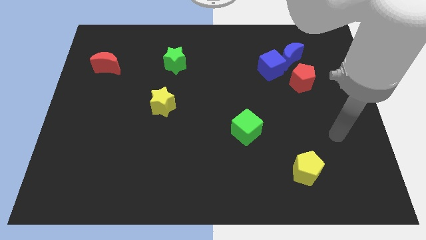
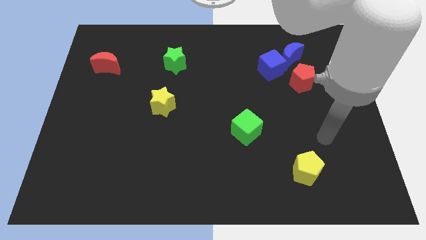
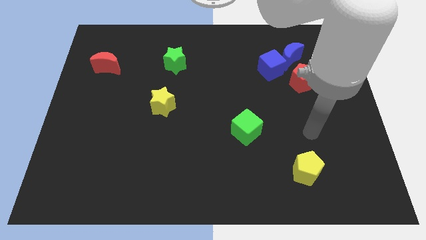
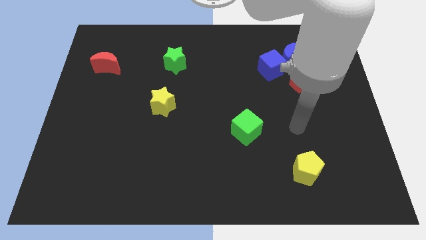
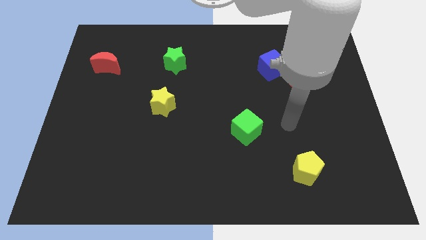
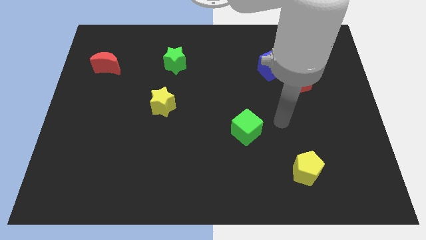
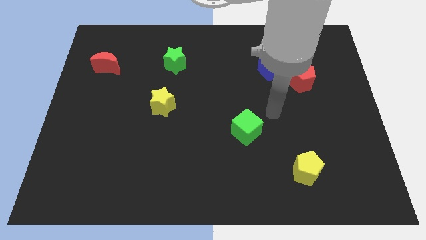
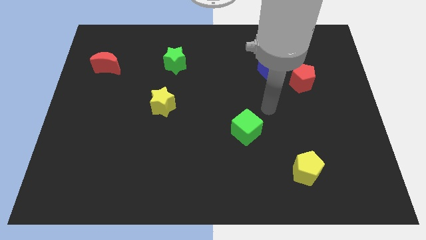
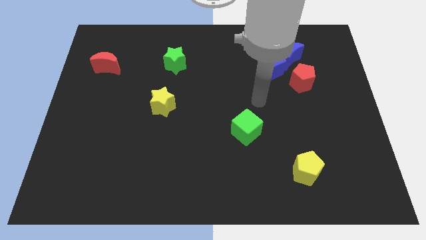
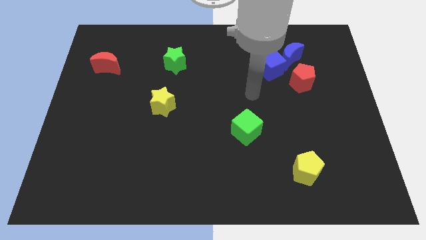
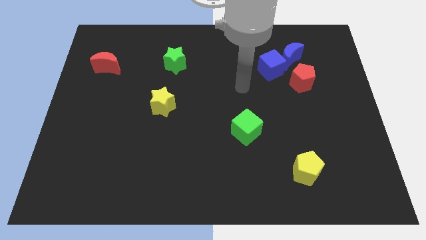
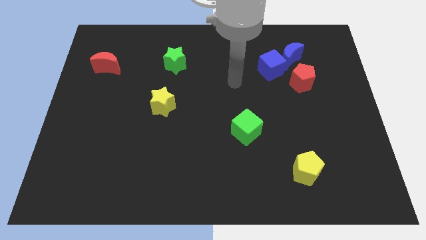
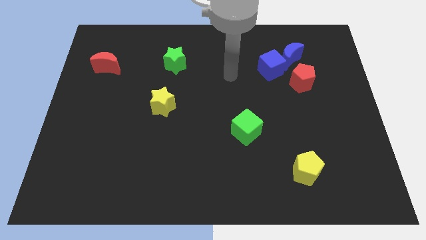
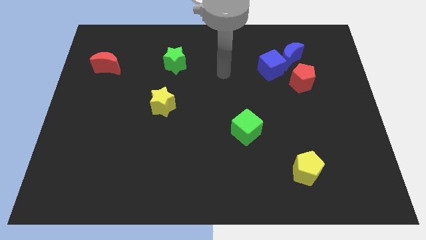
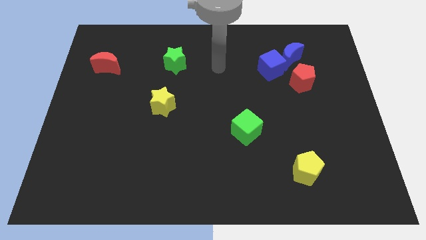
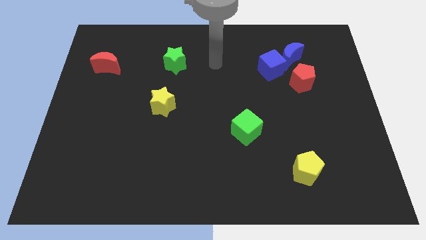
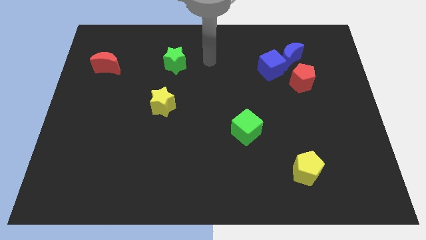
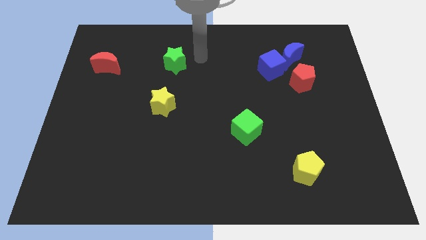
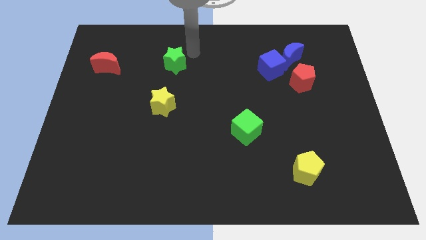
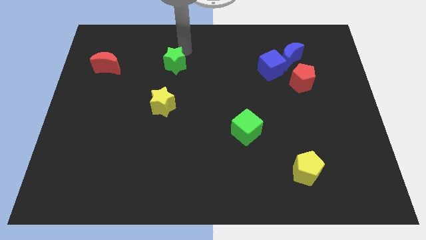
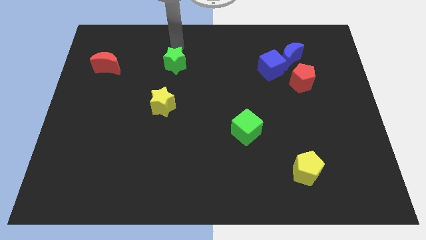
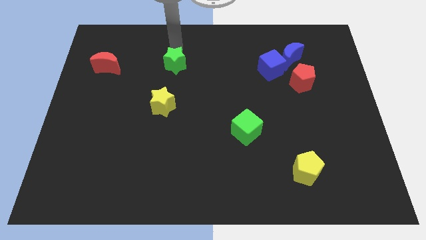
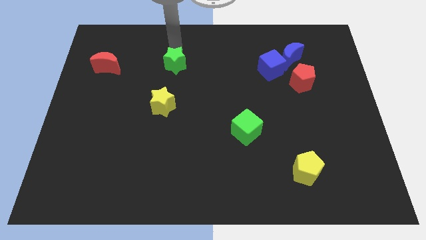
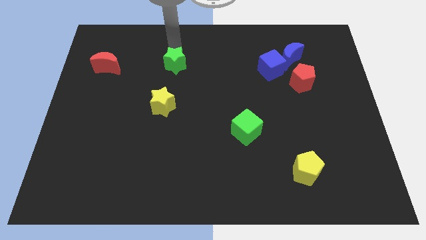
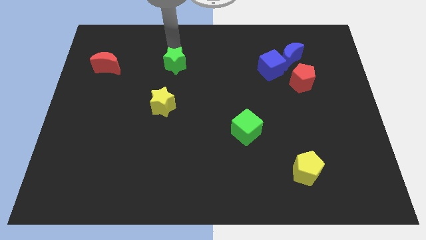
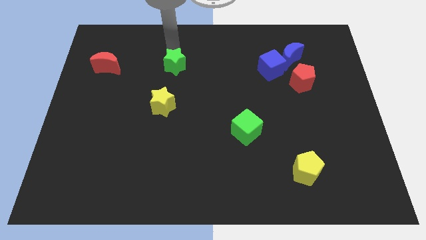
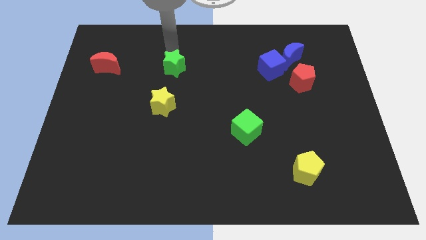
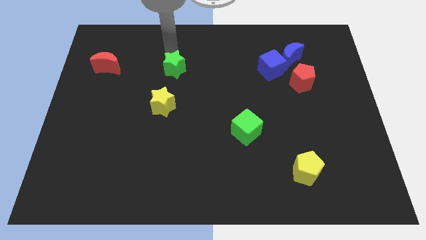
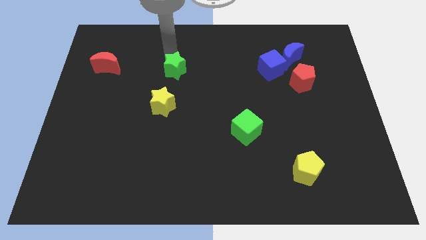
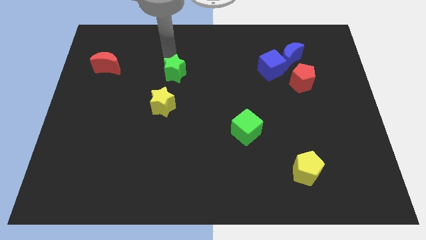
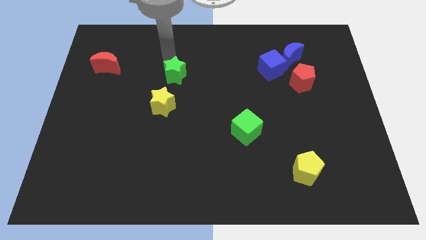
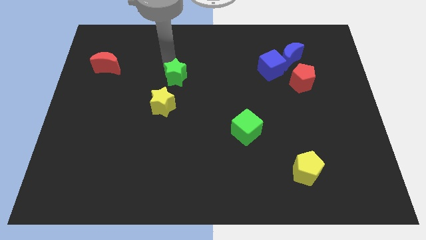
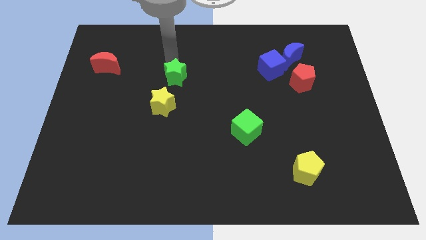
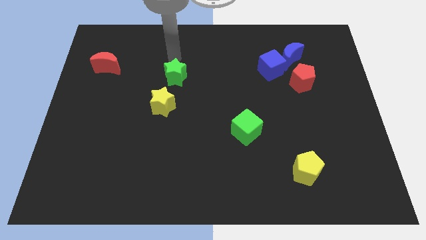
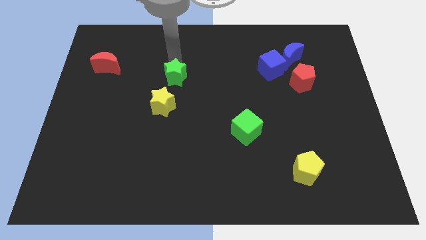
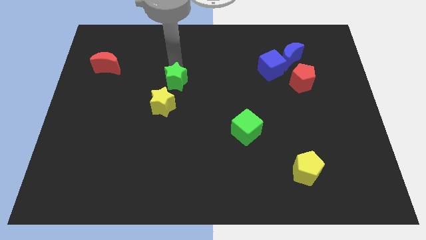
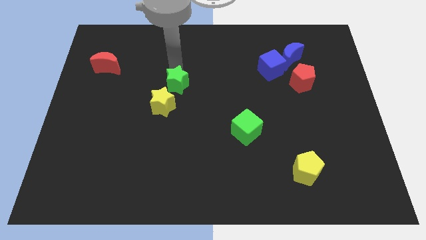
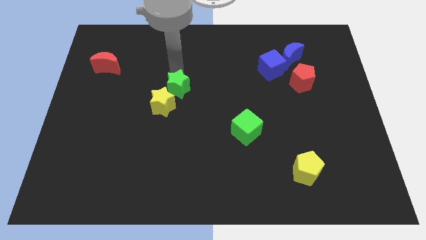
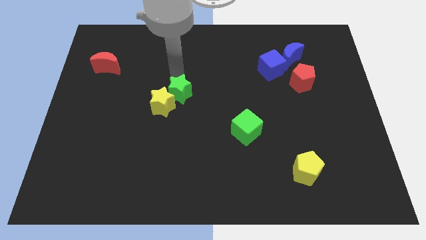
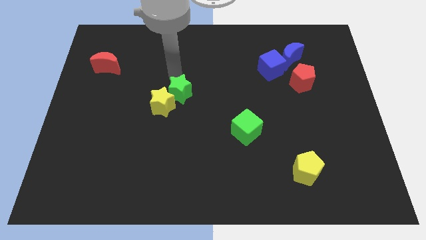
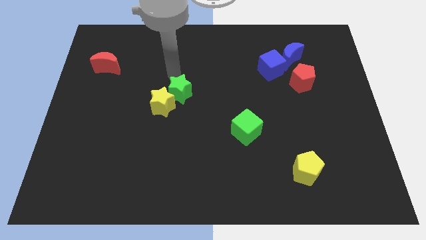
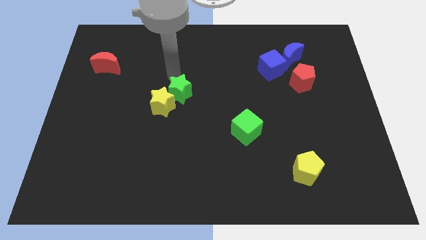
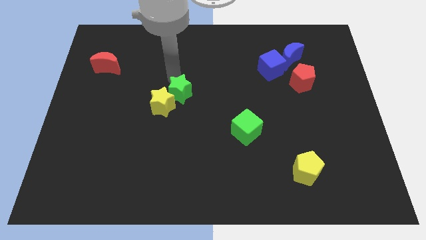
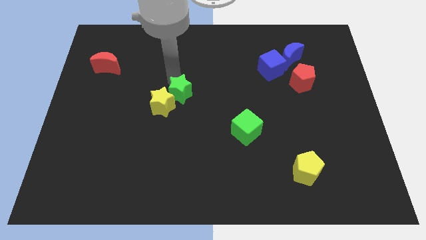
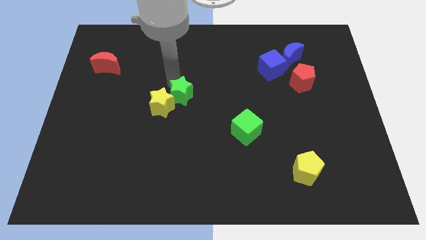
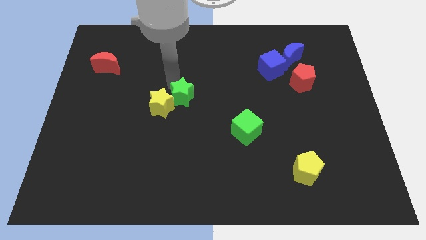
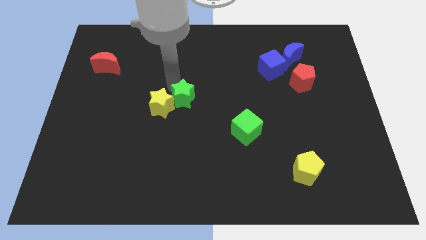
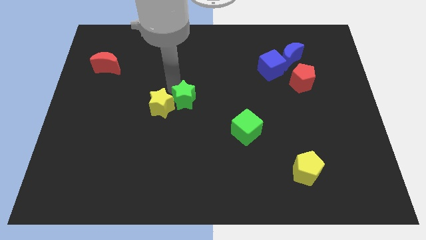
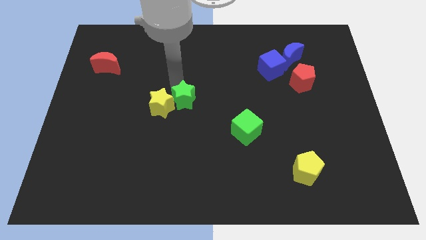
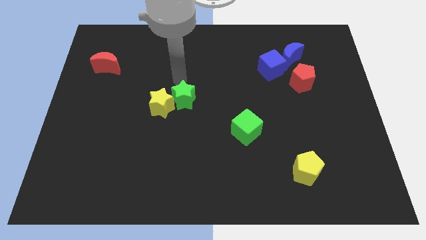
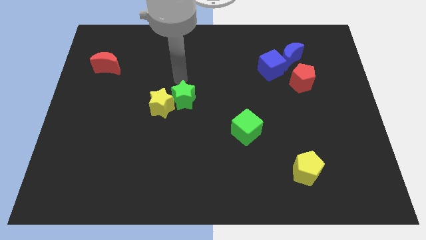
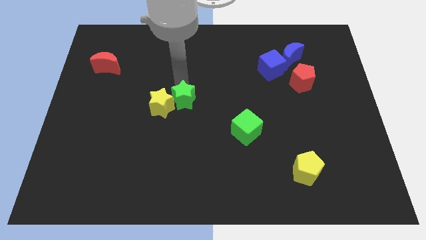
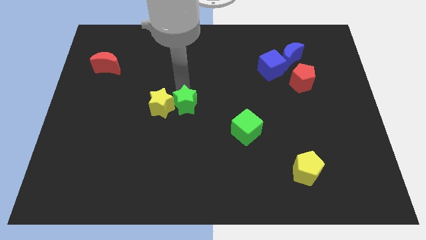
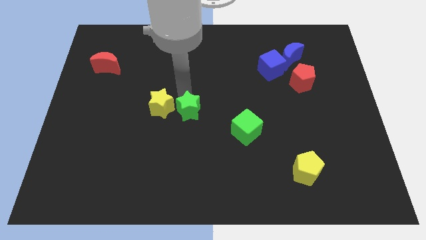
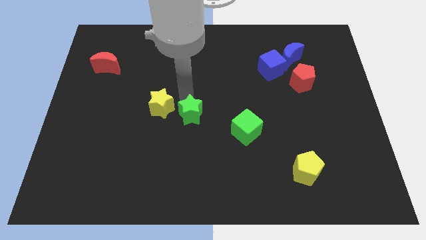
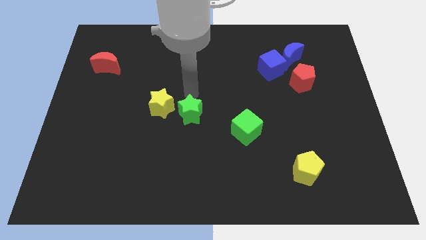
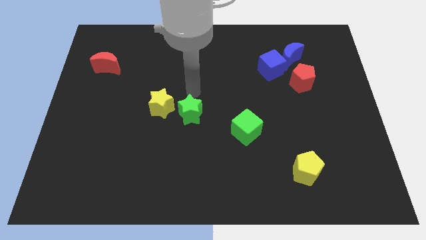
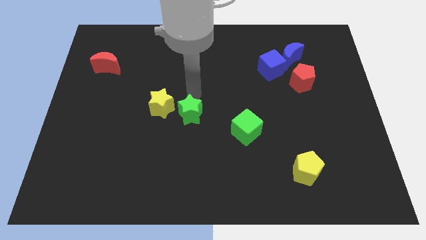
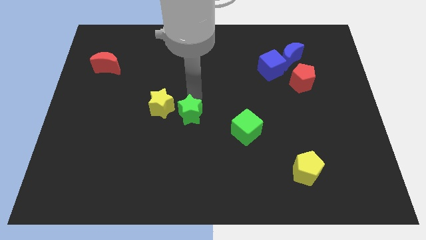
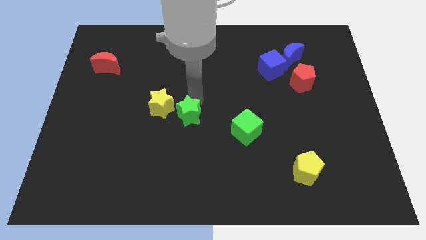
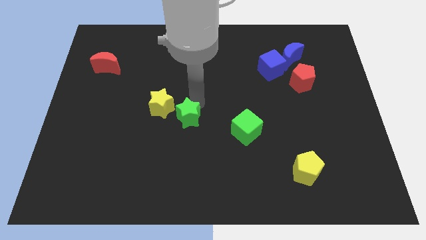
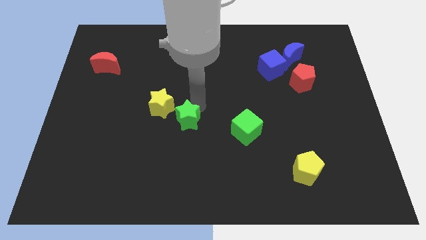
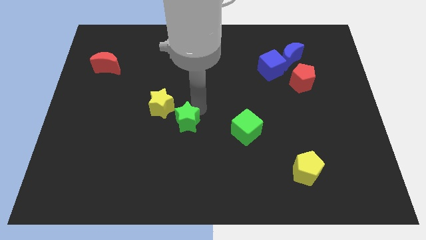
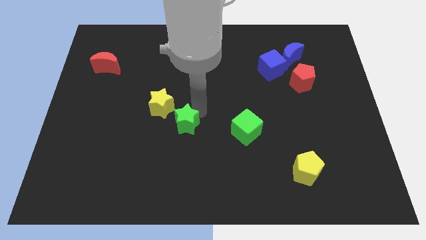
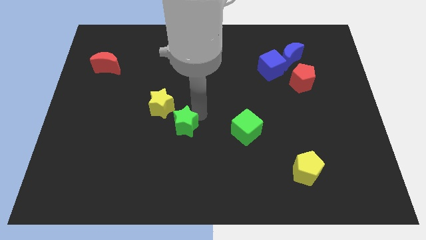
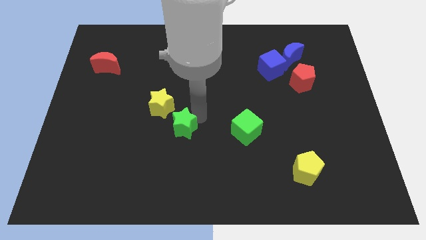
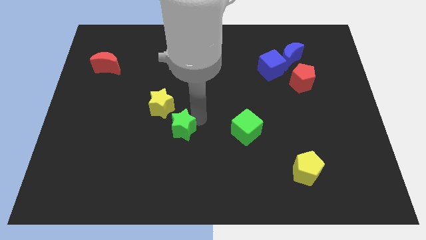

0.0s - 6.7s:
push the green star downwards

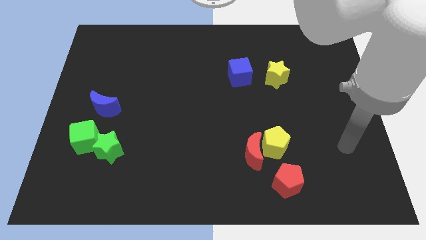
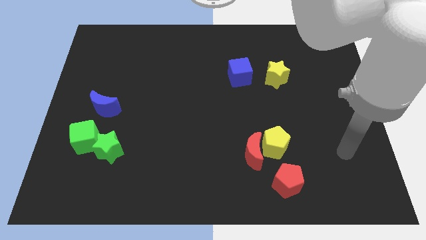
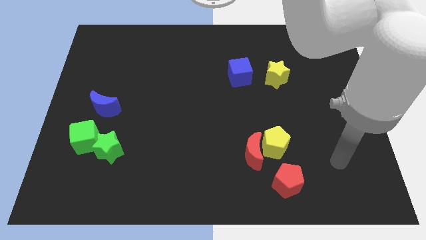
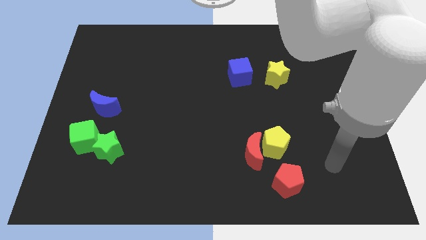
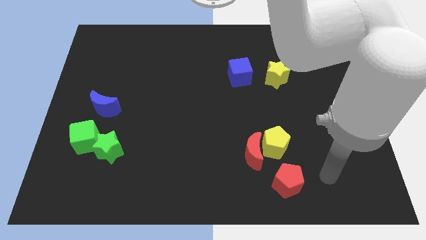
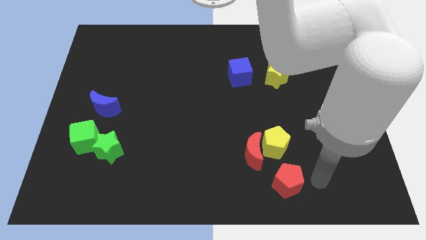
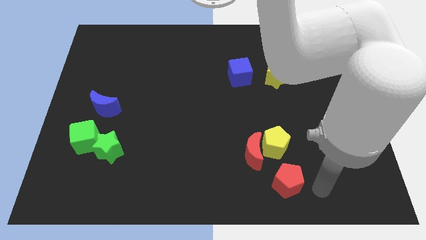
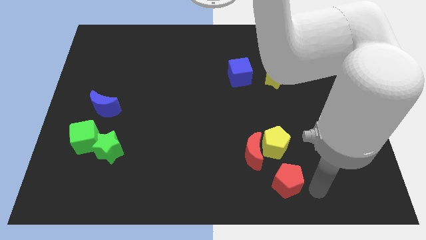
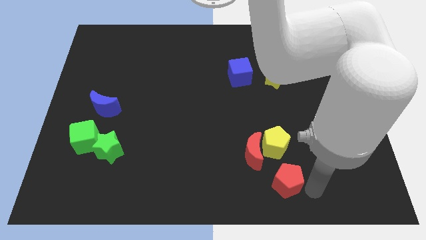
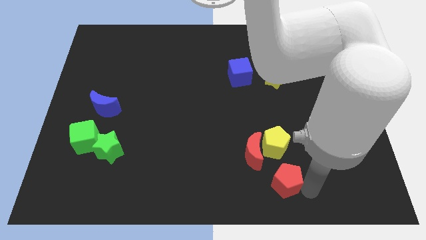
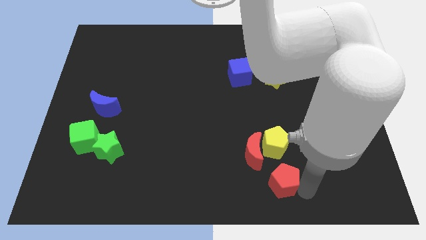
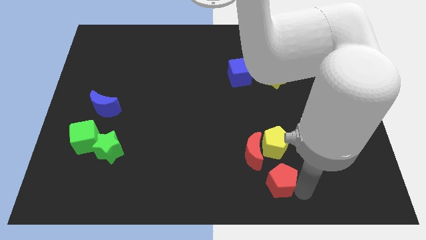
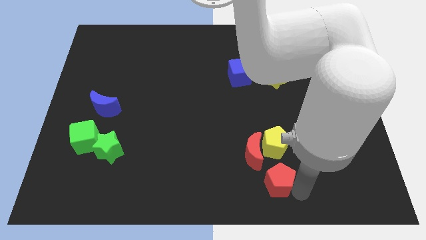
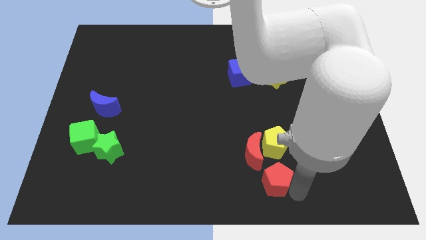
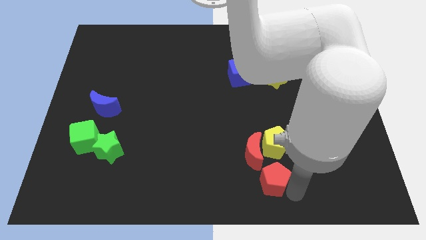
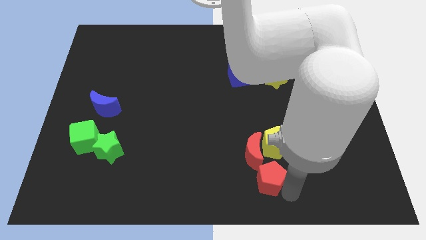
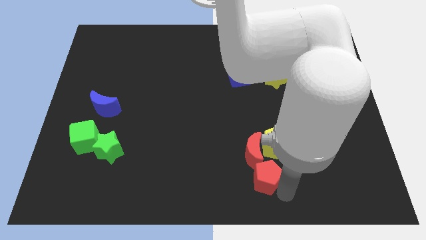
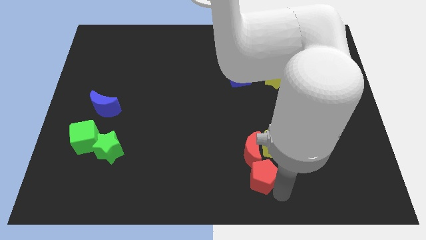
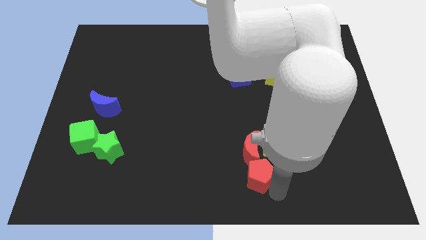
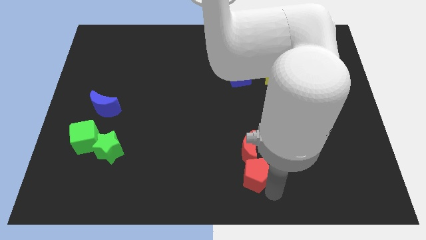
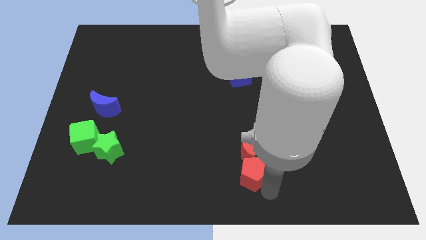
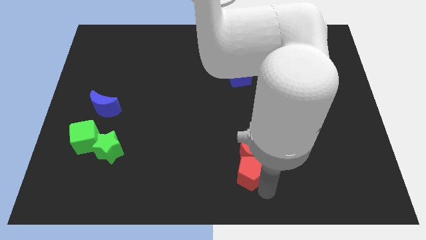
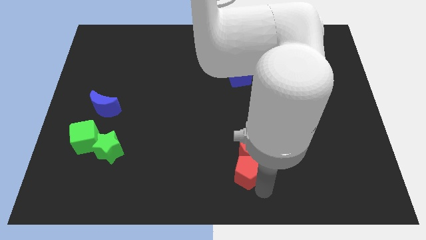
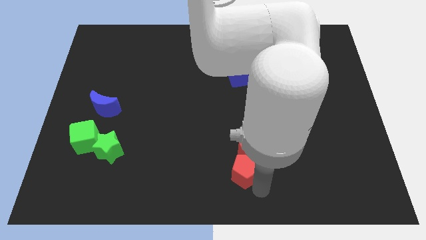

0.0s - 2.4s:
slightly slide the red pentagon diagonally upwards and to the left
